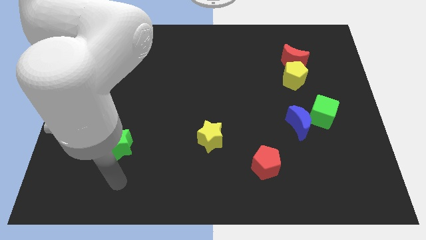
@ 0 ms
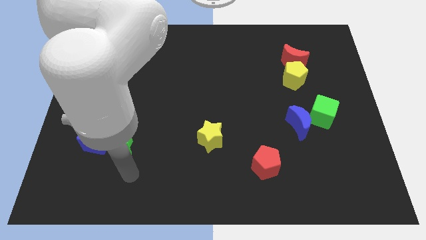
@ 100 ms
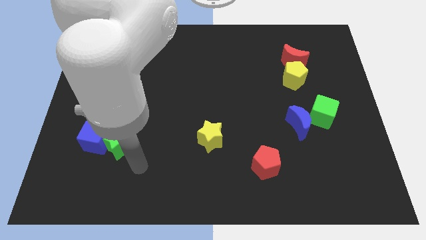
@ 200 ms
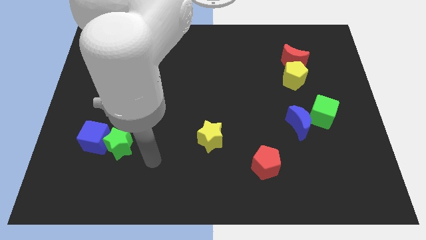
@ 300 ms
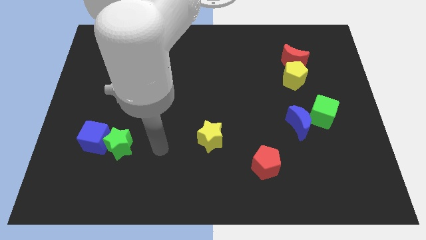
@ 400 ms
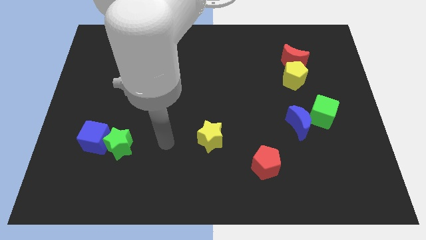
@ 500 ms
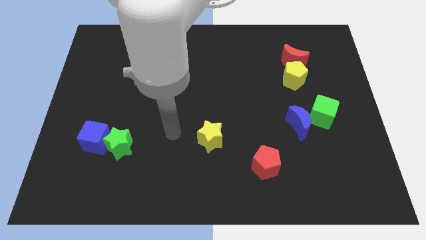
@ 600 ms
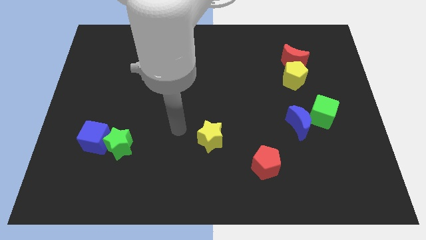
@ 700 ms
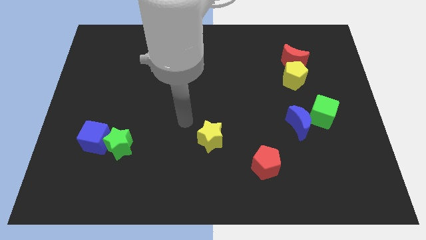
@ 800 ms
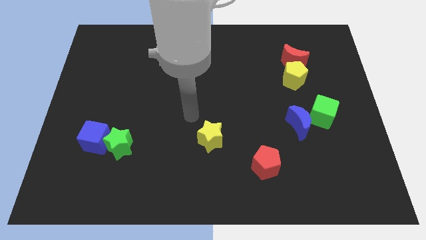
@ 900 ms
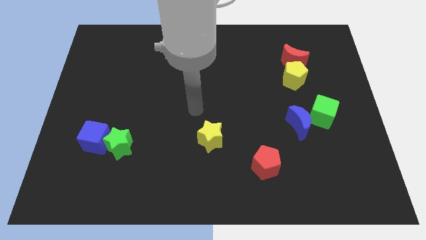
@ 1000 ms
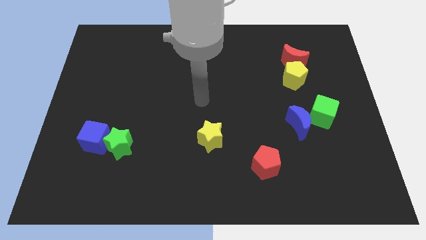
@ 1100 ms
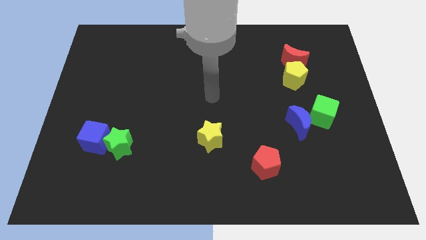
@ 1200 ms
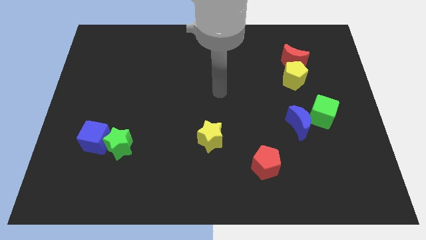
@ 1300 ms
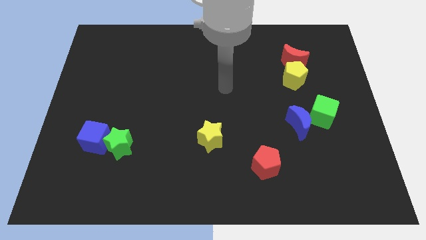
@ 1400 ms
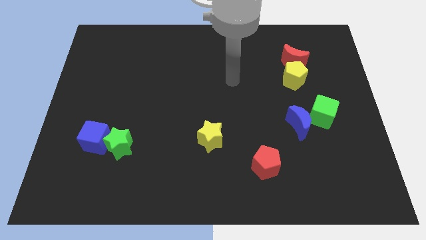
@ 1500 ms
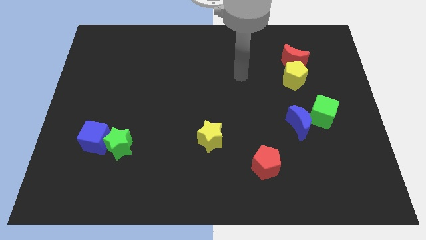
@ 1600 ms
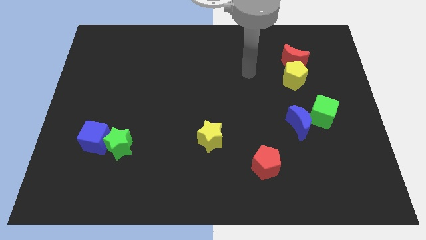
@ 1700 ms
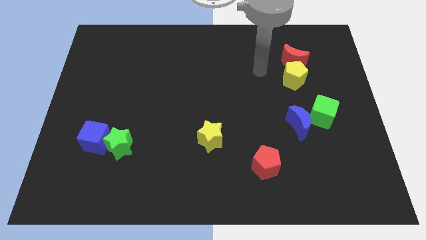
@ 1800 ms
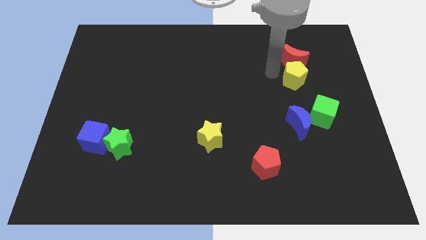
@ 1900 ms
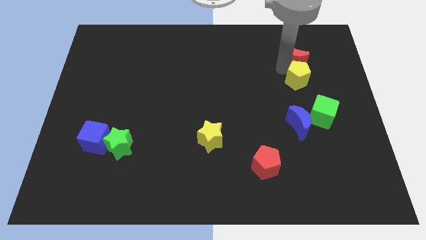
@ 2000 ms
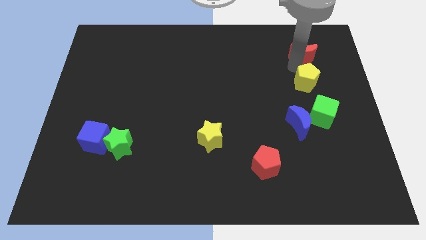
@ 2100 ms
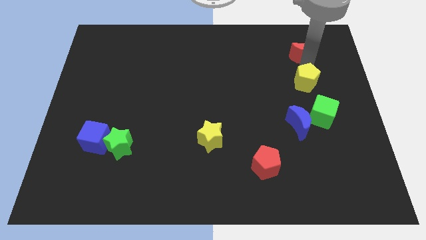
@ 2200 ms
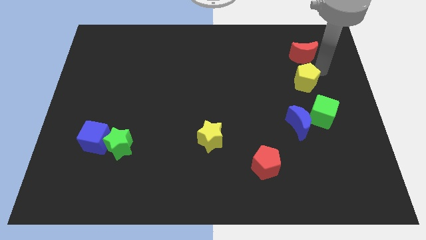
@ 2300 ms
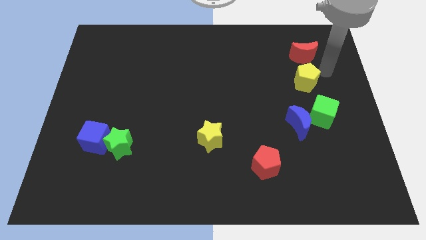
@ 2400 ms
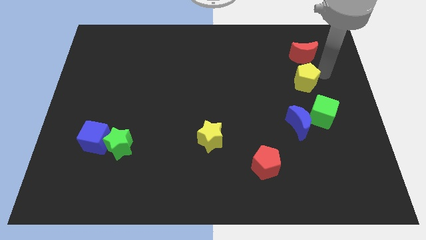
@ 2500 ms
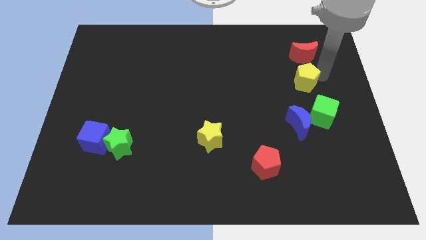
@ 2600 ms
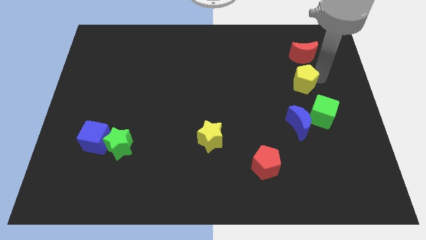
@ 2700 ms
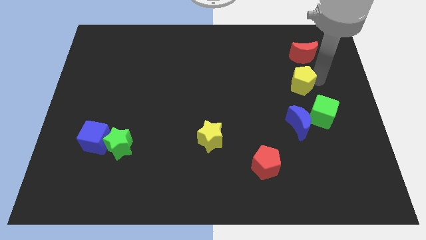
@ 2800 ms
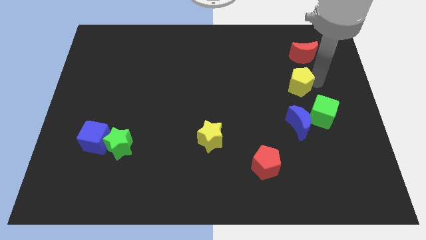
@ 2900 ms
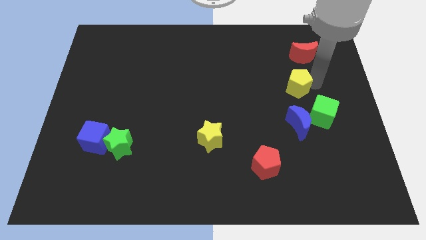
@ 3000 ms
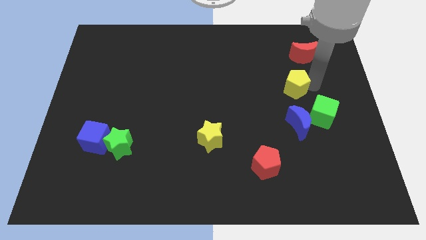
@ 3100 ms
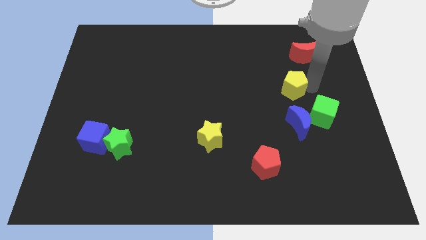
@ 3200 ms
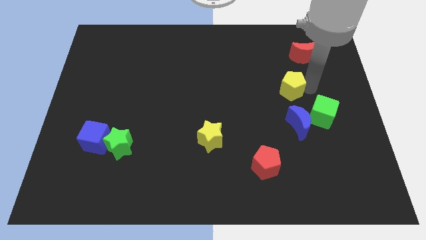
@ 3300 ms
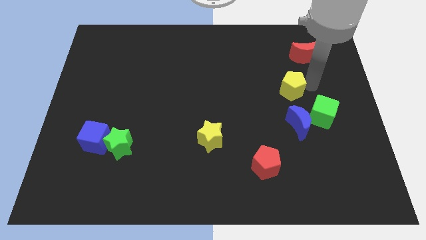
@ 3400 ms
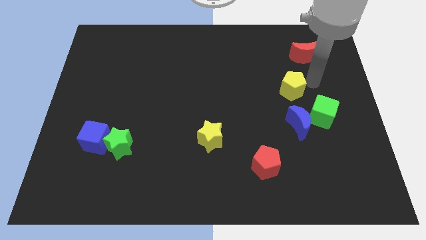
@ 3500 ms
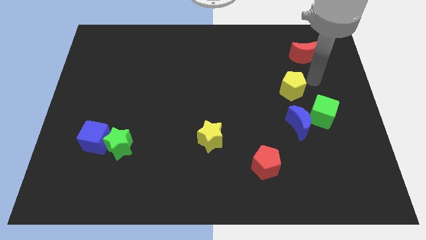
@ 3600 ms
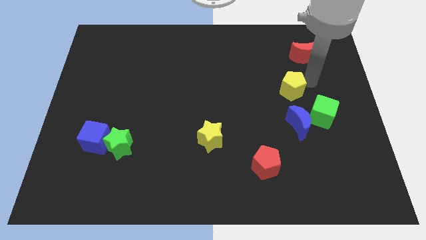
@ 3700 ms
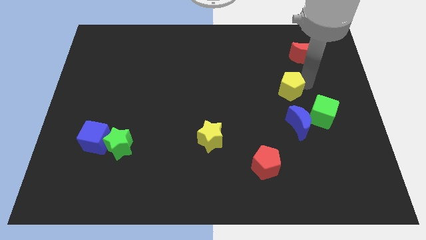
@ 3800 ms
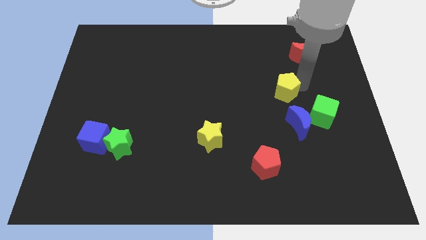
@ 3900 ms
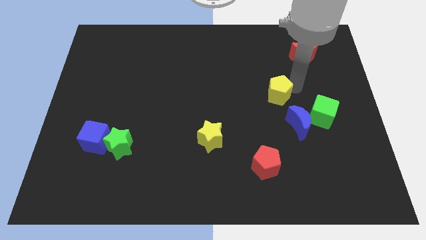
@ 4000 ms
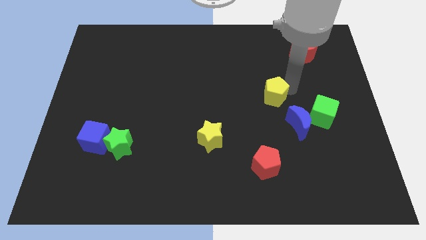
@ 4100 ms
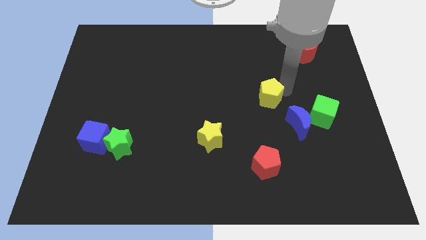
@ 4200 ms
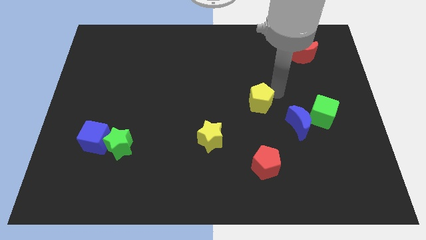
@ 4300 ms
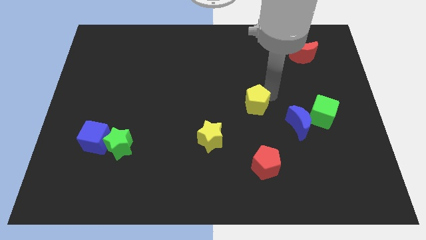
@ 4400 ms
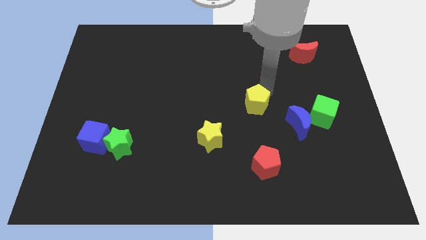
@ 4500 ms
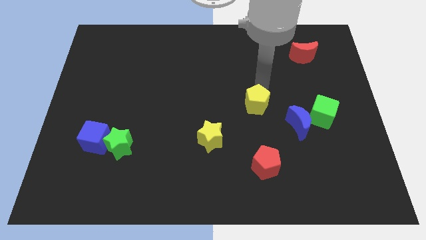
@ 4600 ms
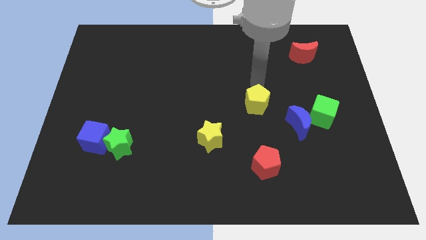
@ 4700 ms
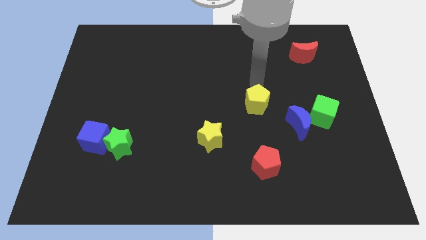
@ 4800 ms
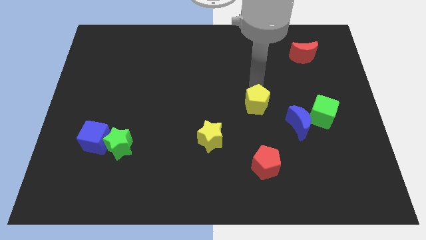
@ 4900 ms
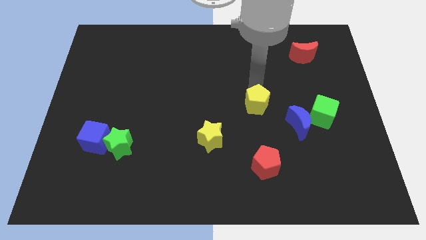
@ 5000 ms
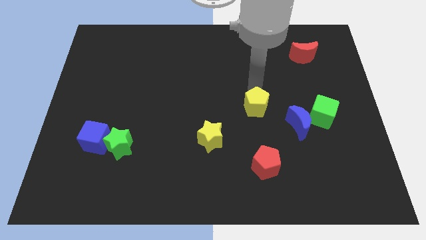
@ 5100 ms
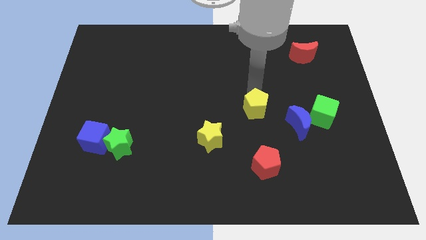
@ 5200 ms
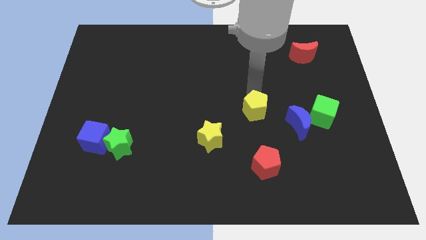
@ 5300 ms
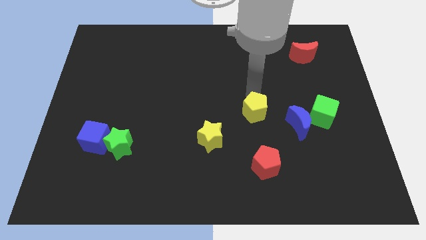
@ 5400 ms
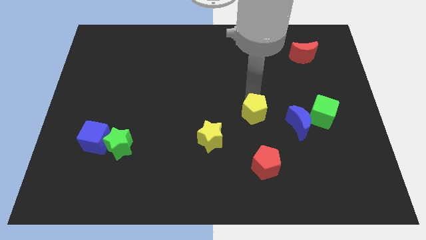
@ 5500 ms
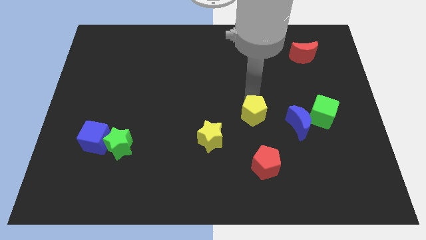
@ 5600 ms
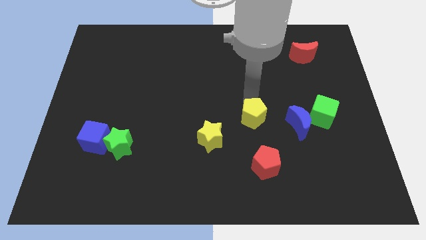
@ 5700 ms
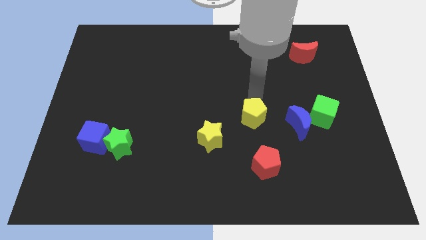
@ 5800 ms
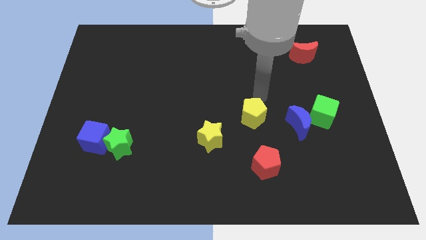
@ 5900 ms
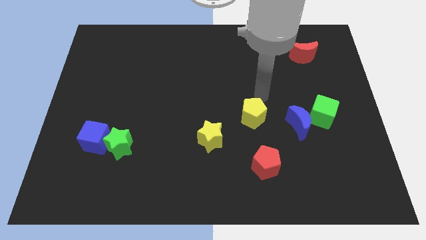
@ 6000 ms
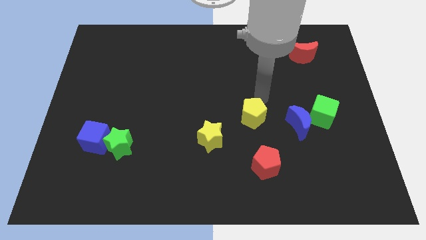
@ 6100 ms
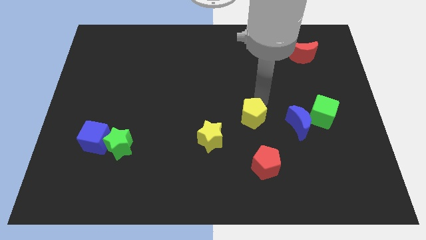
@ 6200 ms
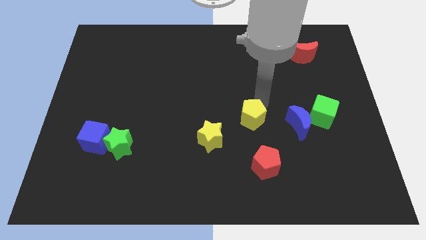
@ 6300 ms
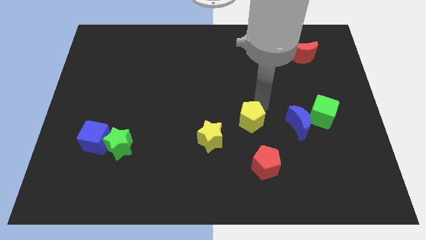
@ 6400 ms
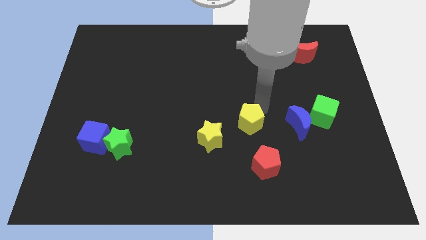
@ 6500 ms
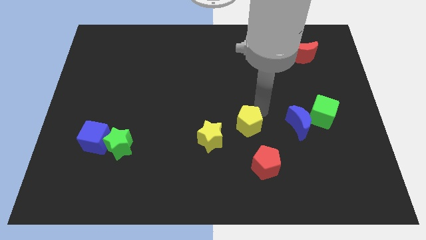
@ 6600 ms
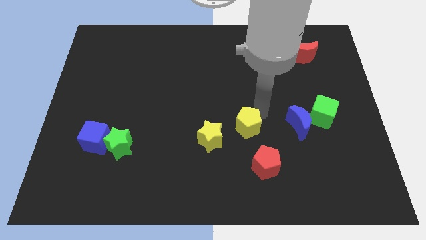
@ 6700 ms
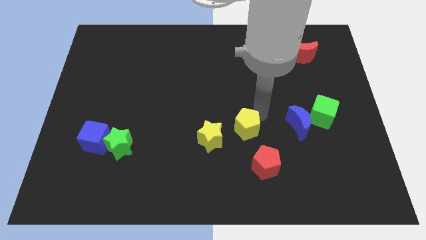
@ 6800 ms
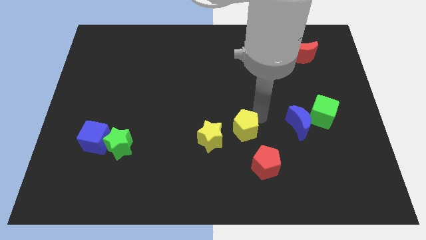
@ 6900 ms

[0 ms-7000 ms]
slide the yellow pentagon downwards and then left

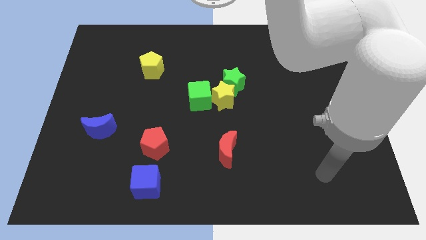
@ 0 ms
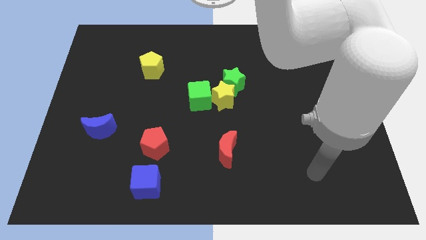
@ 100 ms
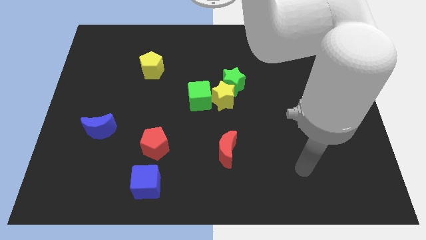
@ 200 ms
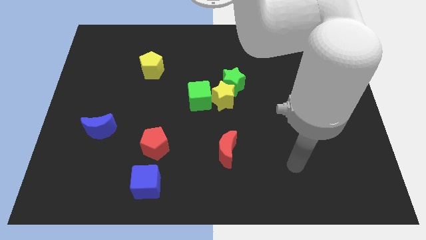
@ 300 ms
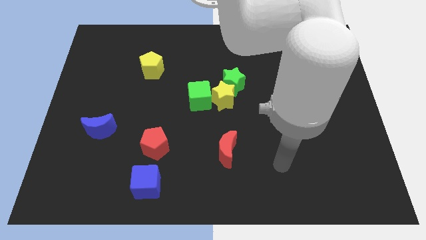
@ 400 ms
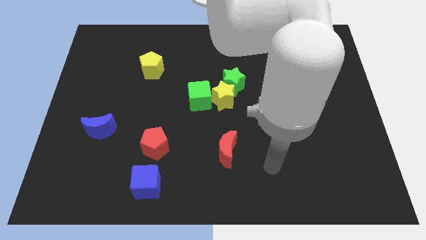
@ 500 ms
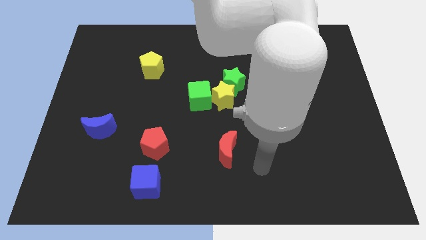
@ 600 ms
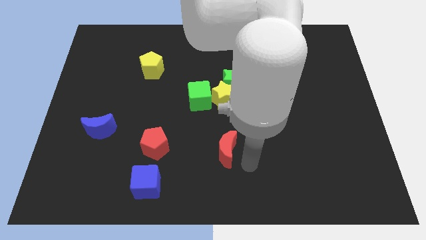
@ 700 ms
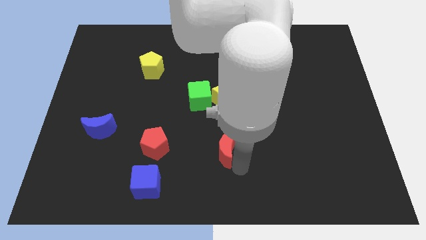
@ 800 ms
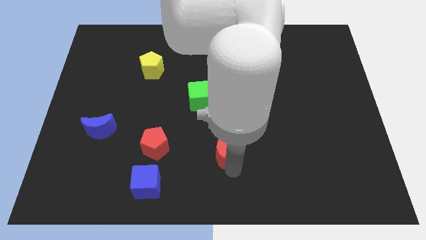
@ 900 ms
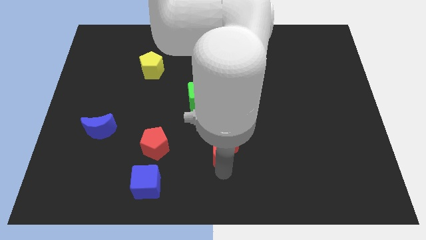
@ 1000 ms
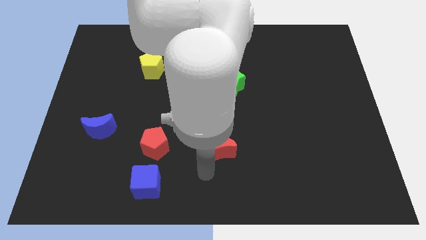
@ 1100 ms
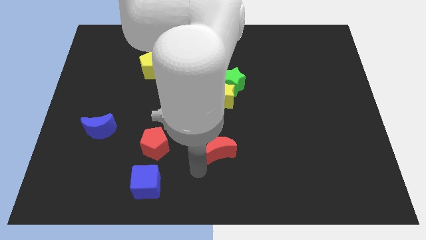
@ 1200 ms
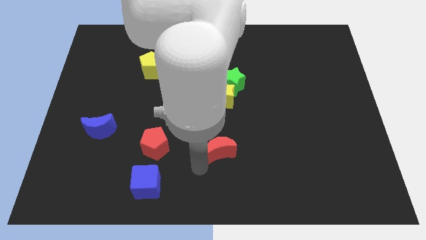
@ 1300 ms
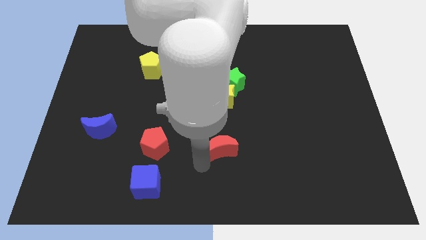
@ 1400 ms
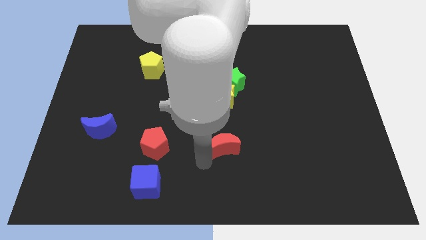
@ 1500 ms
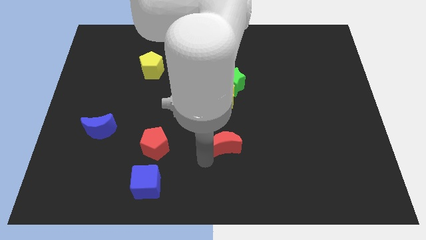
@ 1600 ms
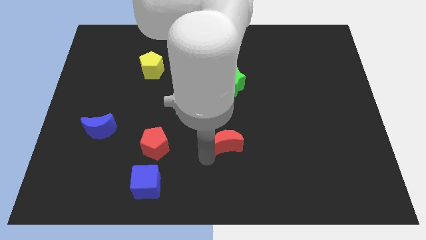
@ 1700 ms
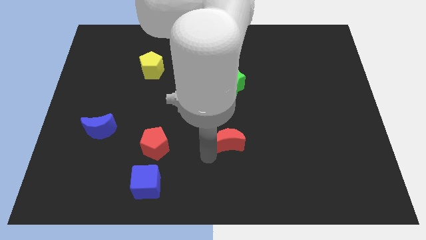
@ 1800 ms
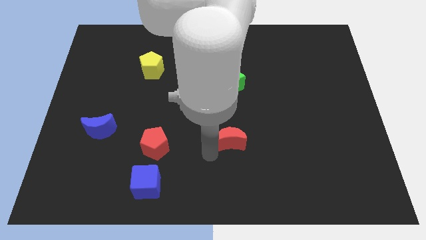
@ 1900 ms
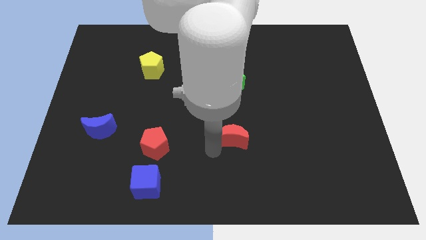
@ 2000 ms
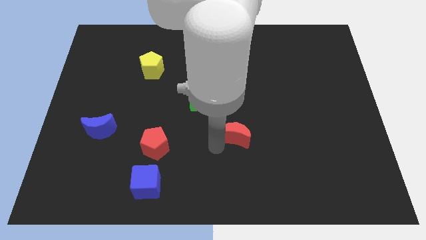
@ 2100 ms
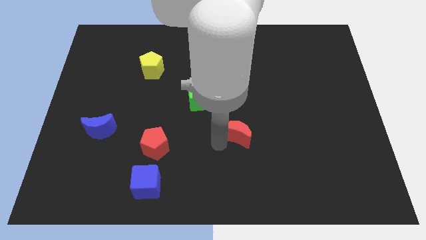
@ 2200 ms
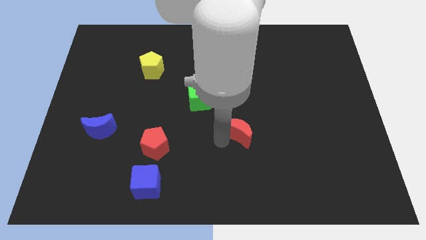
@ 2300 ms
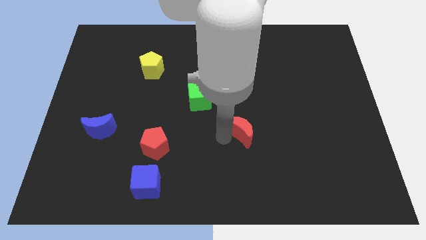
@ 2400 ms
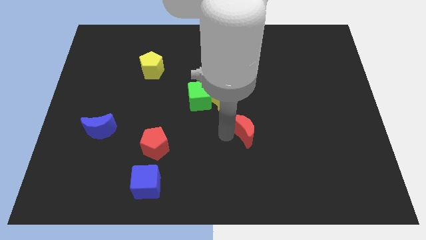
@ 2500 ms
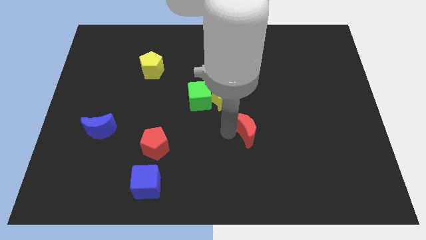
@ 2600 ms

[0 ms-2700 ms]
slightly push the red moon upwards and then right
